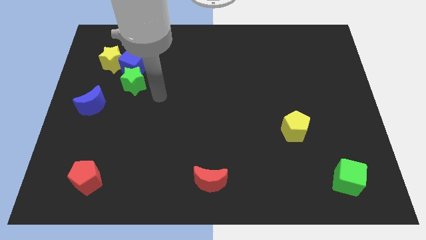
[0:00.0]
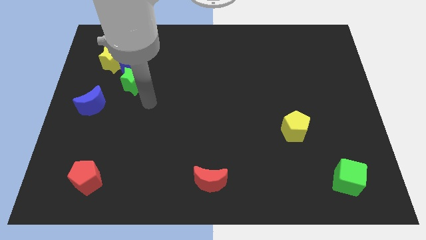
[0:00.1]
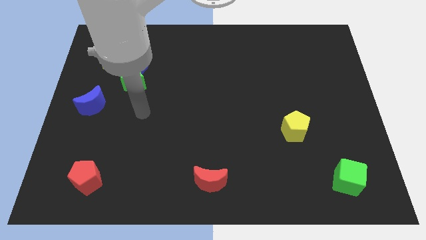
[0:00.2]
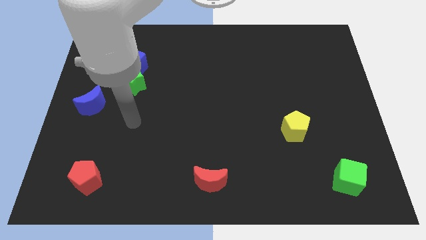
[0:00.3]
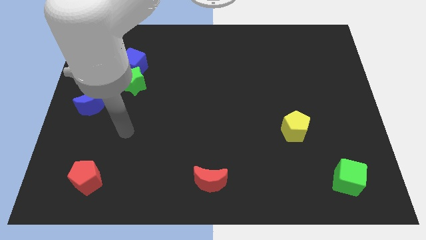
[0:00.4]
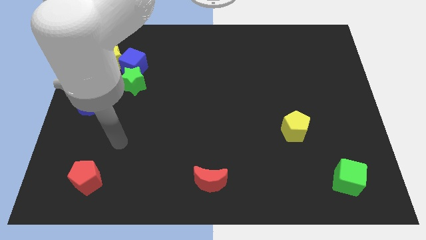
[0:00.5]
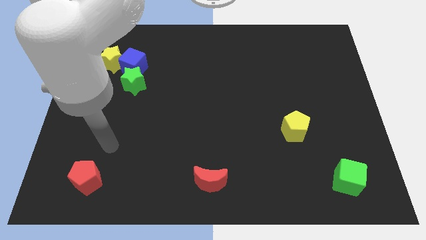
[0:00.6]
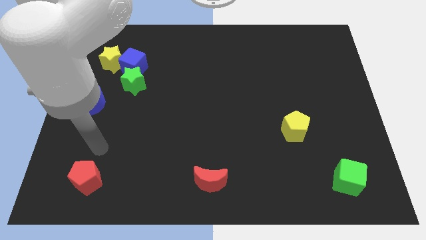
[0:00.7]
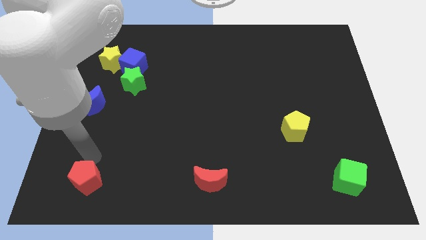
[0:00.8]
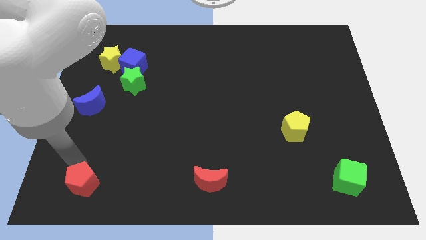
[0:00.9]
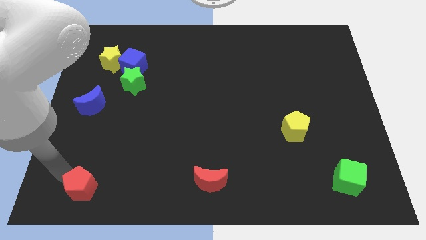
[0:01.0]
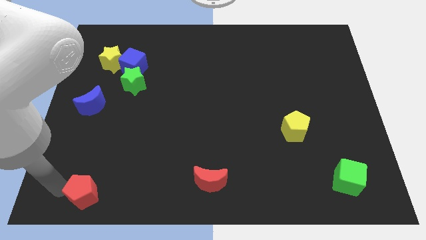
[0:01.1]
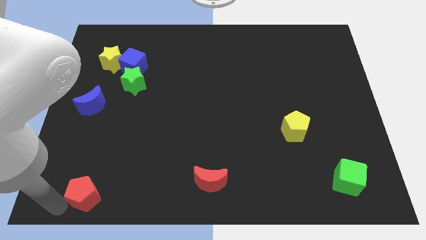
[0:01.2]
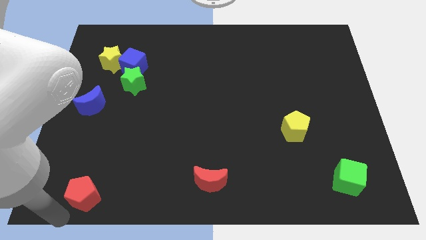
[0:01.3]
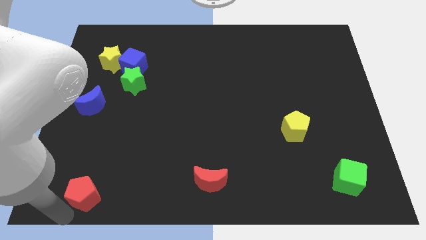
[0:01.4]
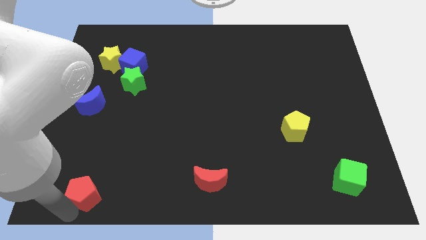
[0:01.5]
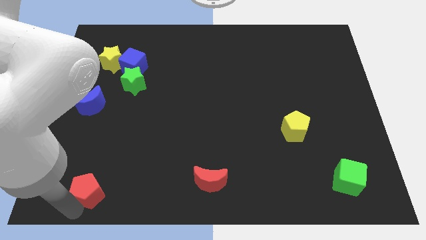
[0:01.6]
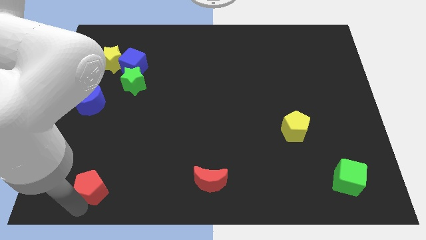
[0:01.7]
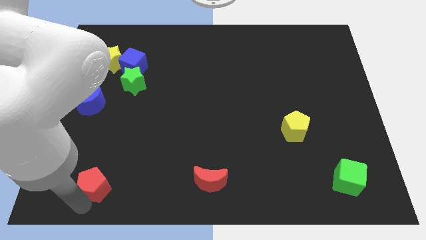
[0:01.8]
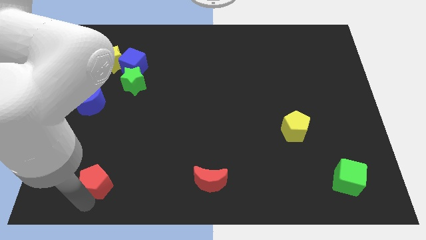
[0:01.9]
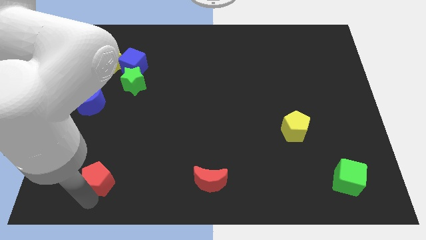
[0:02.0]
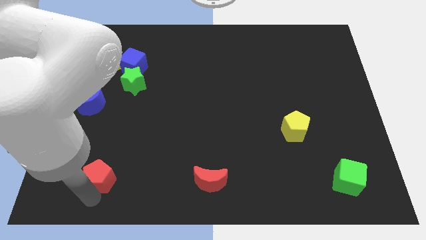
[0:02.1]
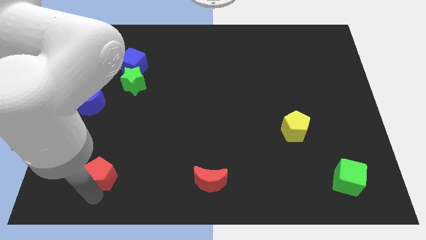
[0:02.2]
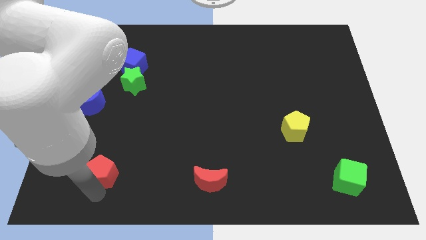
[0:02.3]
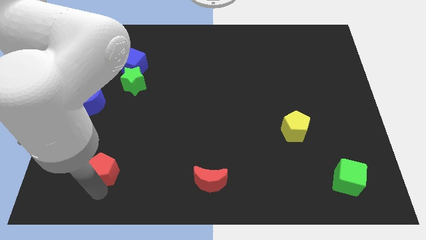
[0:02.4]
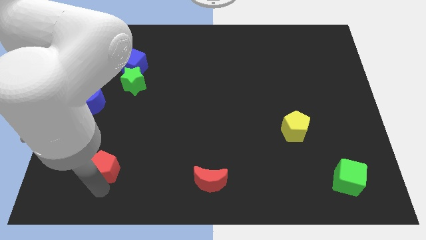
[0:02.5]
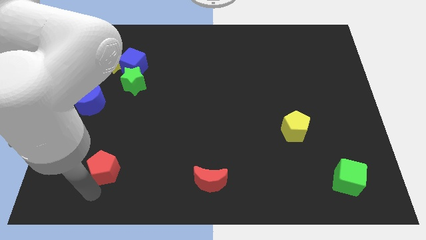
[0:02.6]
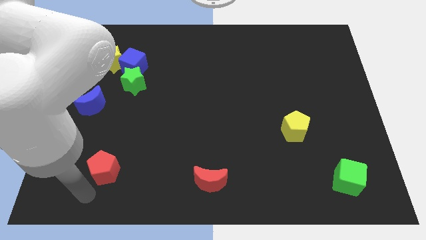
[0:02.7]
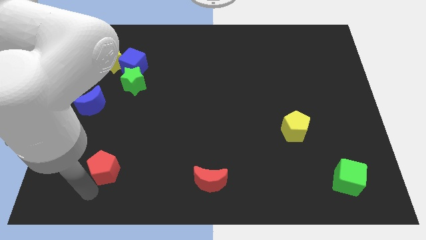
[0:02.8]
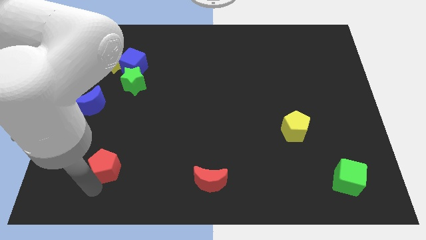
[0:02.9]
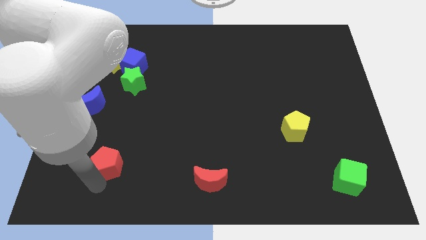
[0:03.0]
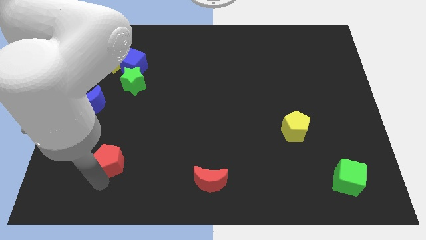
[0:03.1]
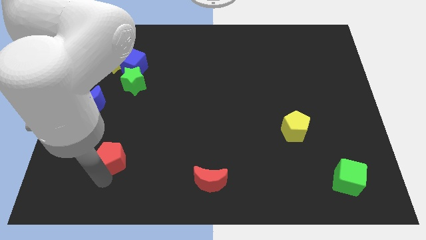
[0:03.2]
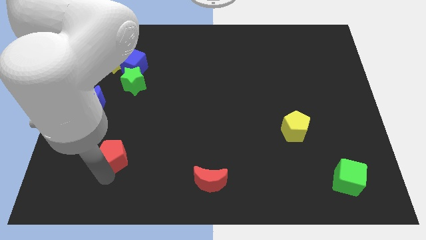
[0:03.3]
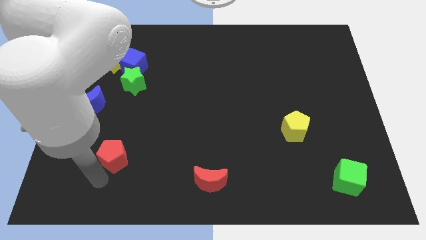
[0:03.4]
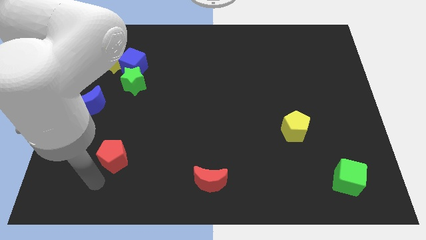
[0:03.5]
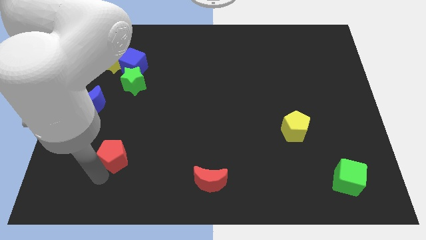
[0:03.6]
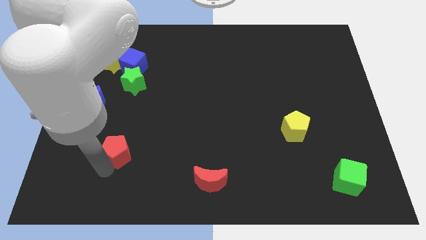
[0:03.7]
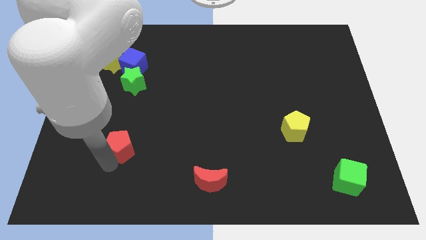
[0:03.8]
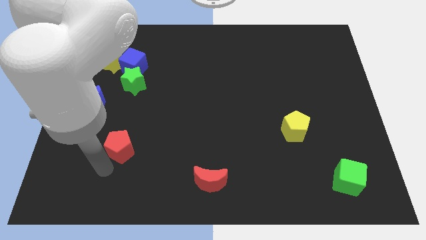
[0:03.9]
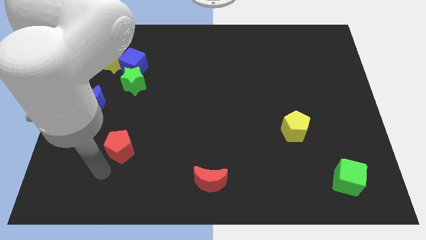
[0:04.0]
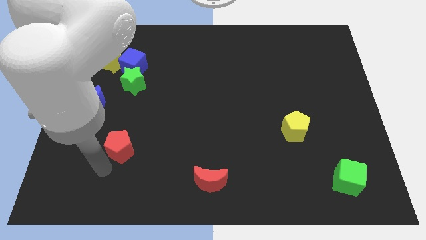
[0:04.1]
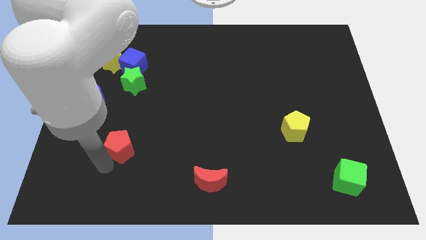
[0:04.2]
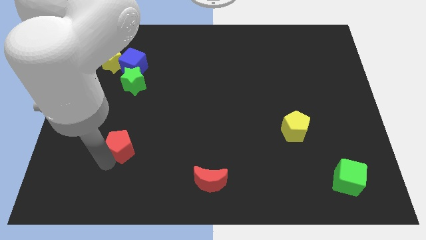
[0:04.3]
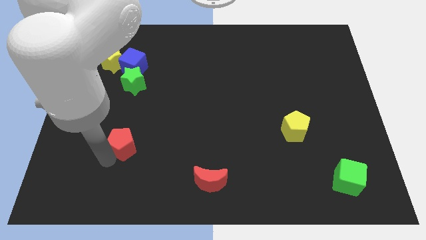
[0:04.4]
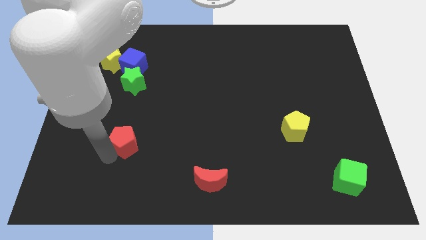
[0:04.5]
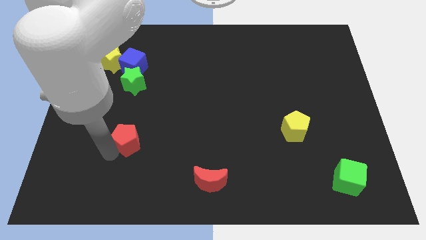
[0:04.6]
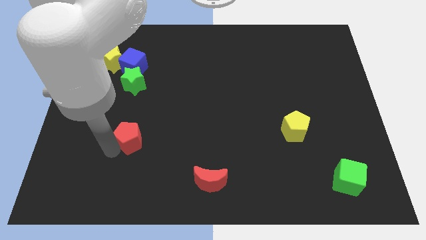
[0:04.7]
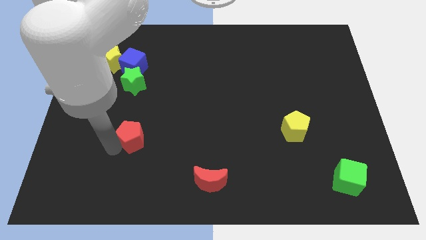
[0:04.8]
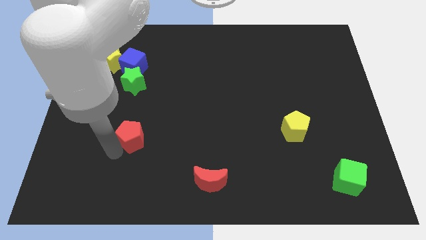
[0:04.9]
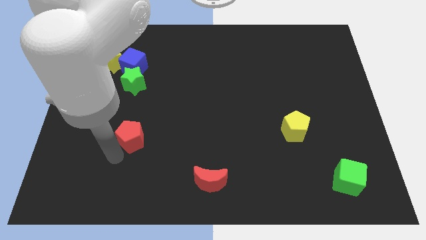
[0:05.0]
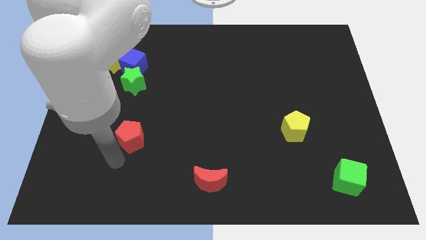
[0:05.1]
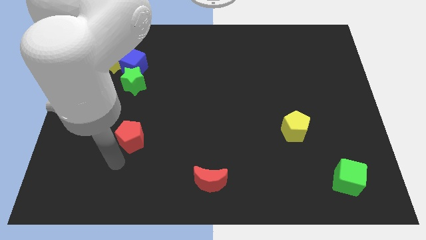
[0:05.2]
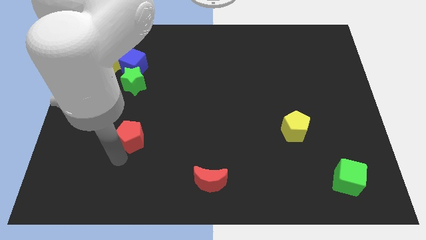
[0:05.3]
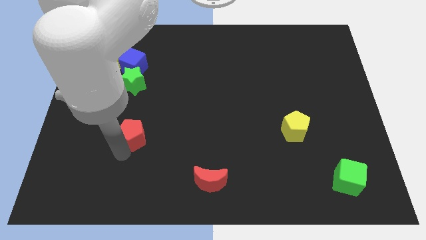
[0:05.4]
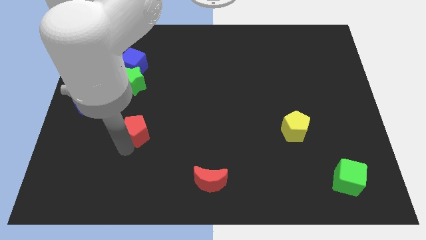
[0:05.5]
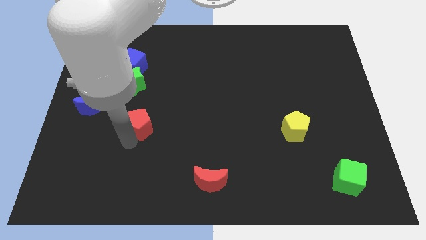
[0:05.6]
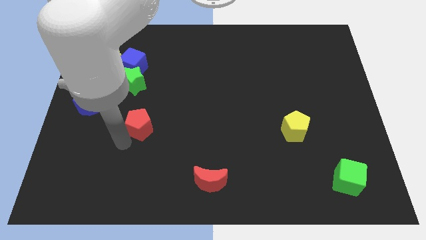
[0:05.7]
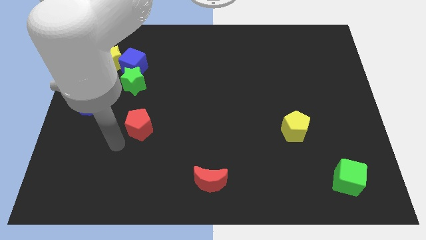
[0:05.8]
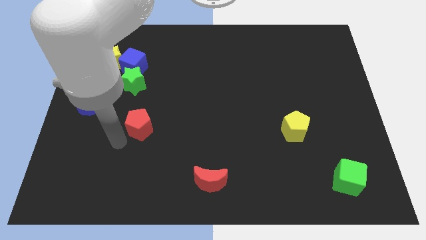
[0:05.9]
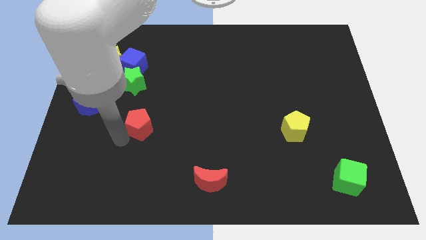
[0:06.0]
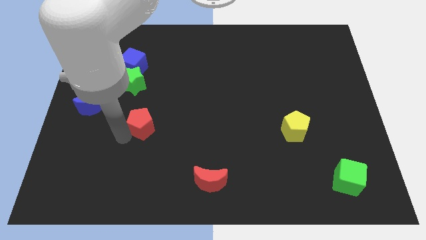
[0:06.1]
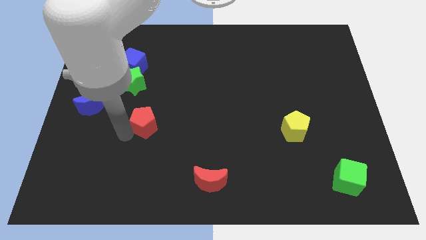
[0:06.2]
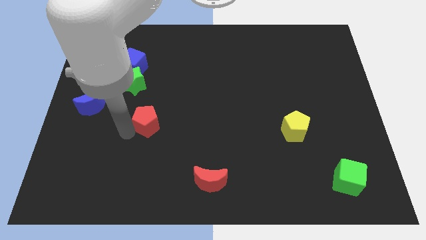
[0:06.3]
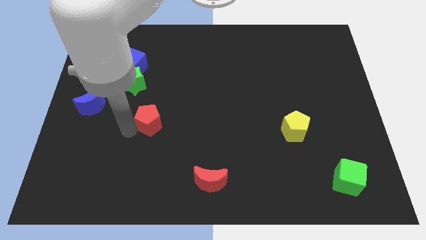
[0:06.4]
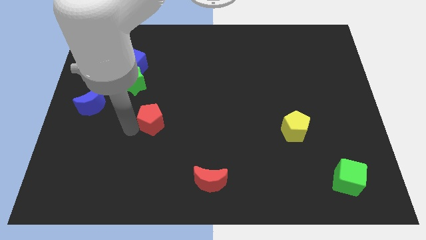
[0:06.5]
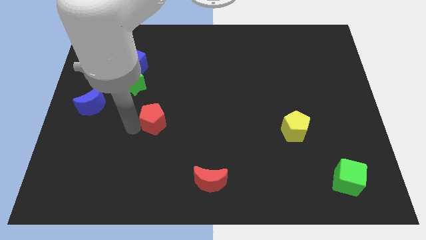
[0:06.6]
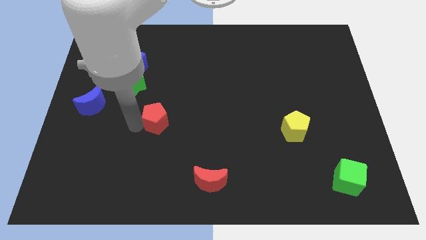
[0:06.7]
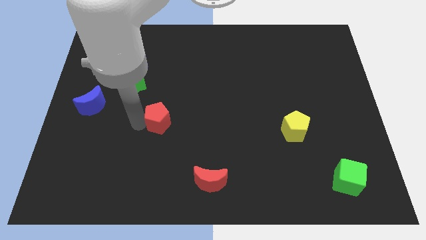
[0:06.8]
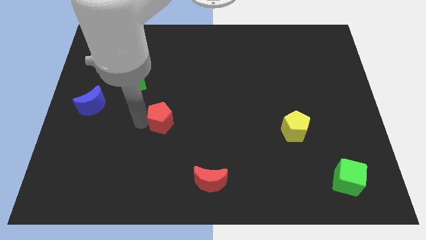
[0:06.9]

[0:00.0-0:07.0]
slide the red pentagon upwards and then right

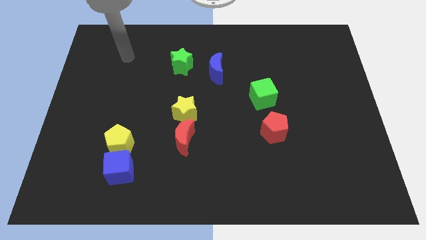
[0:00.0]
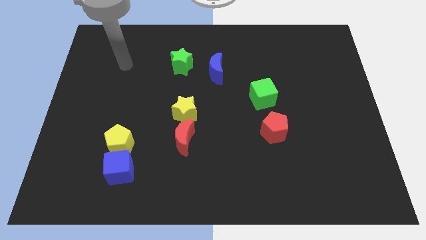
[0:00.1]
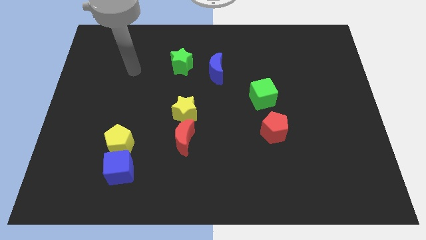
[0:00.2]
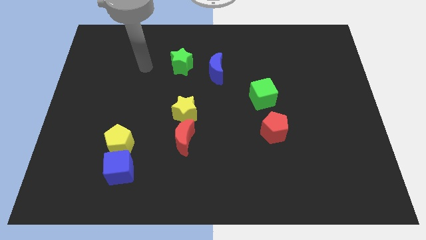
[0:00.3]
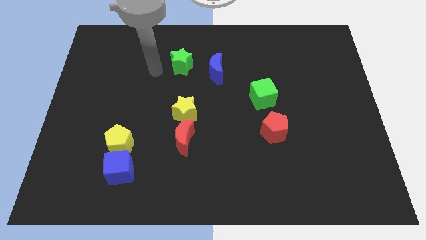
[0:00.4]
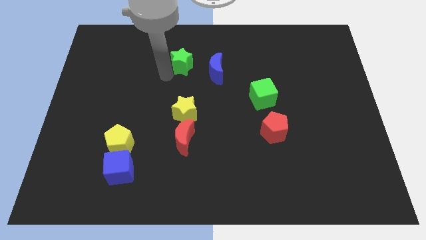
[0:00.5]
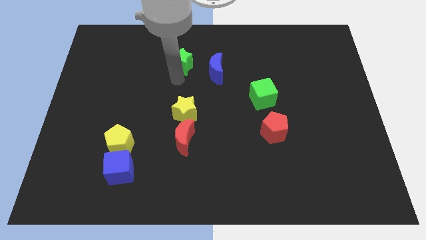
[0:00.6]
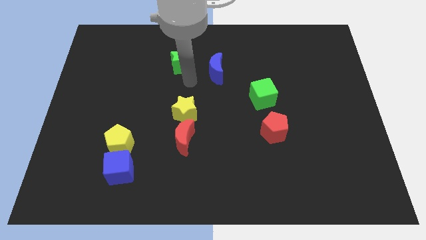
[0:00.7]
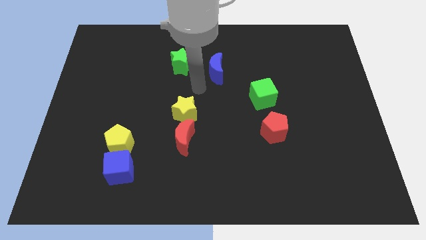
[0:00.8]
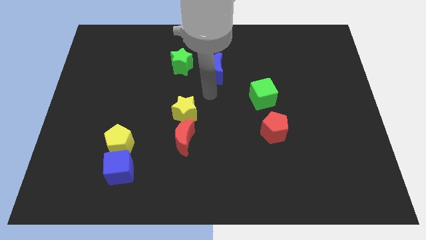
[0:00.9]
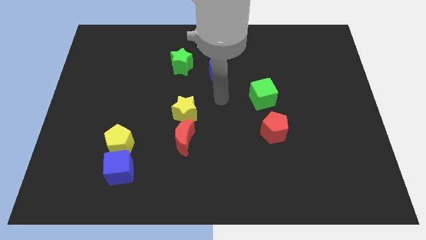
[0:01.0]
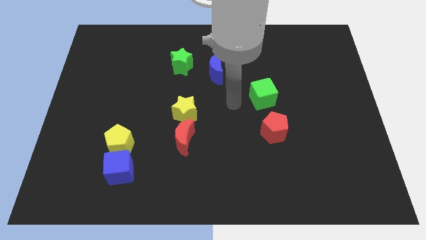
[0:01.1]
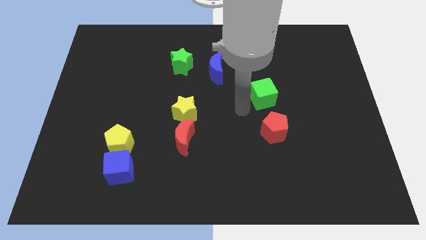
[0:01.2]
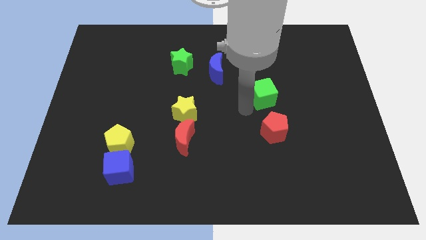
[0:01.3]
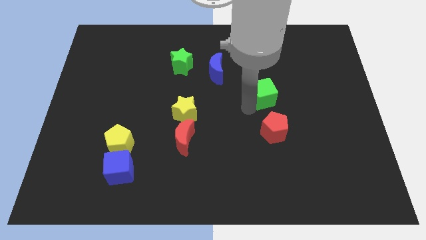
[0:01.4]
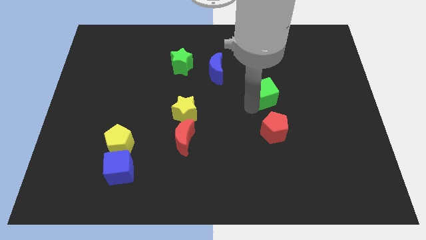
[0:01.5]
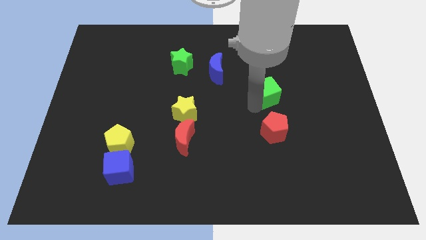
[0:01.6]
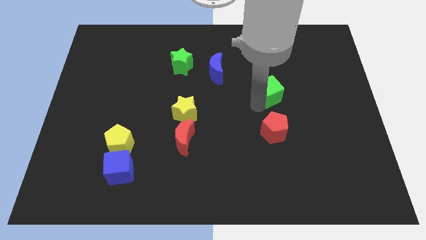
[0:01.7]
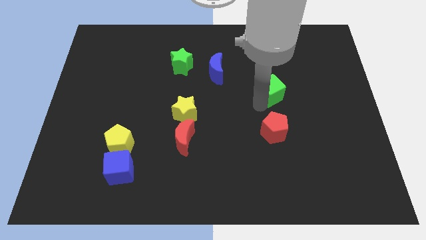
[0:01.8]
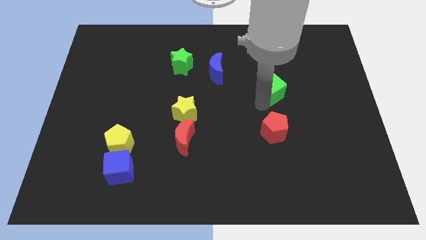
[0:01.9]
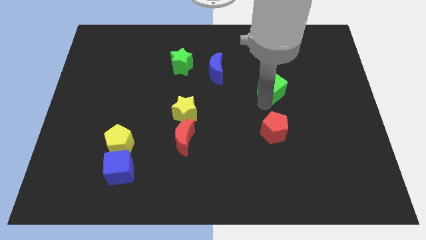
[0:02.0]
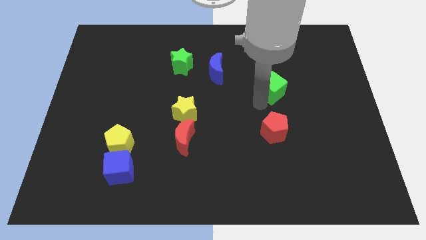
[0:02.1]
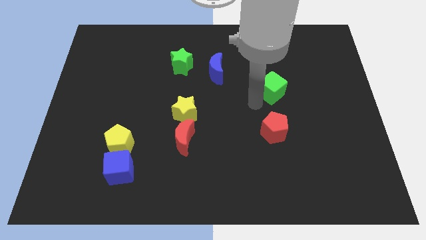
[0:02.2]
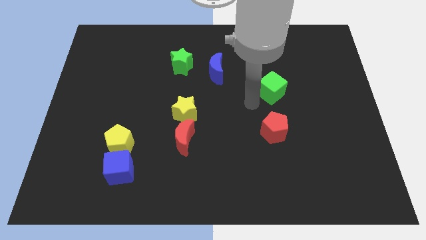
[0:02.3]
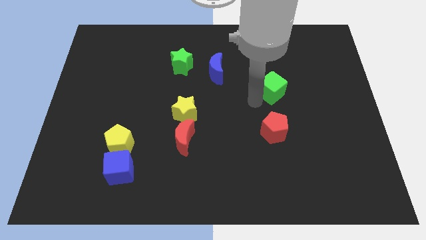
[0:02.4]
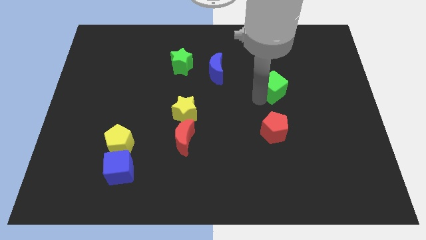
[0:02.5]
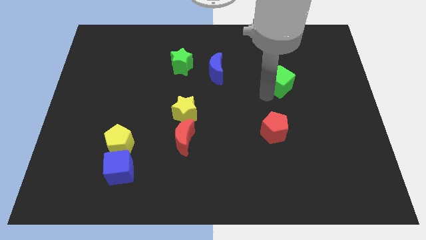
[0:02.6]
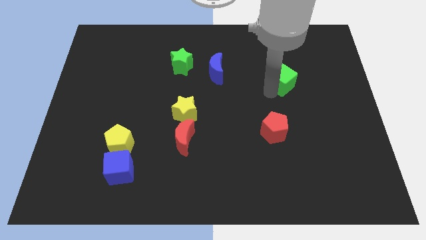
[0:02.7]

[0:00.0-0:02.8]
push the green cube up and right slightly
